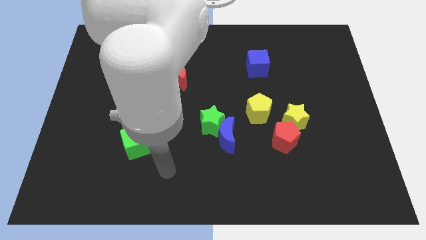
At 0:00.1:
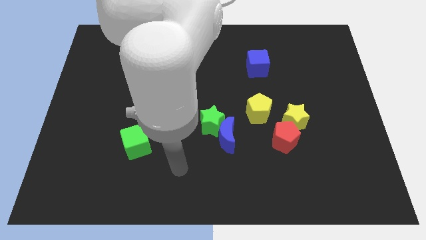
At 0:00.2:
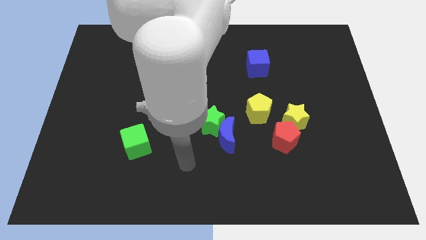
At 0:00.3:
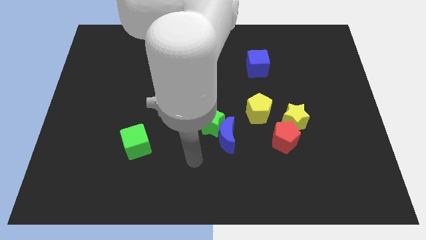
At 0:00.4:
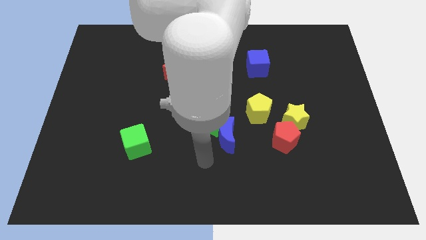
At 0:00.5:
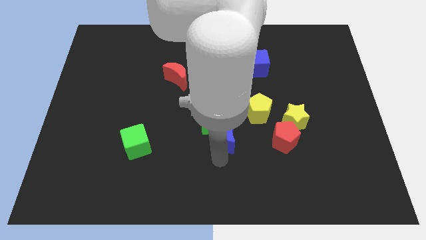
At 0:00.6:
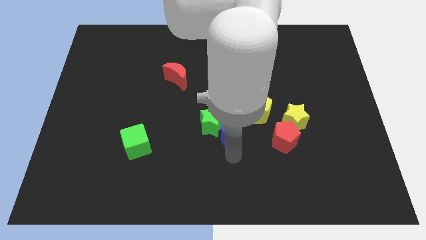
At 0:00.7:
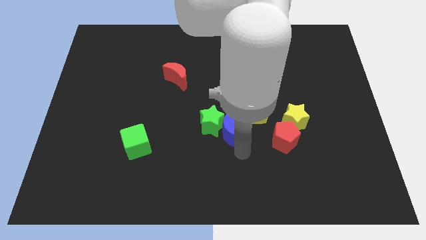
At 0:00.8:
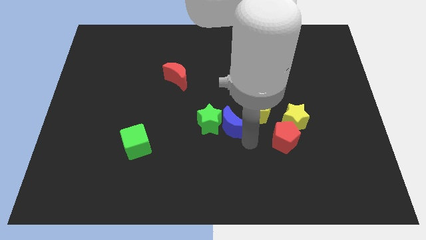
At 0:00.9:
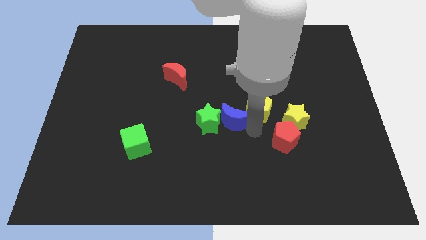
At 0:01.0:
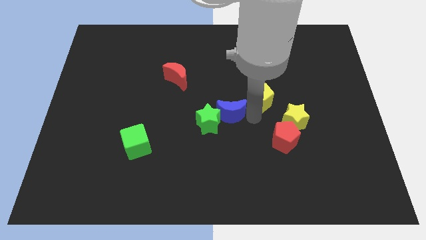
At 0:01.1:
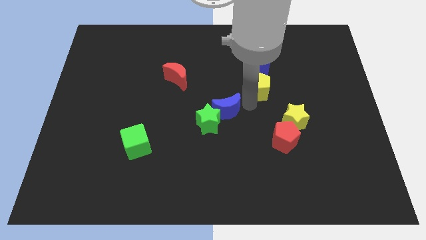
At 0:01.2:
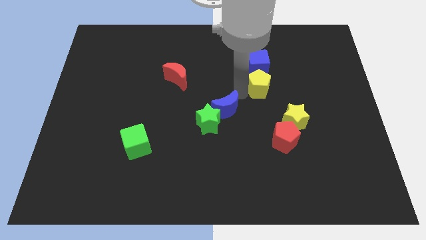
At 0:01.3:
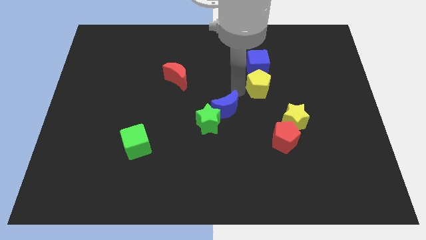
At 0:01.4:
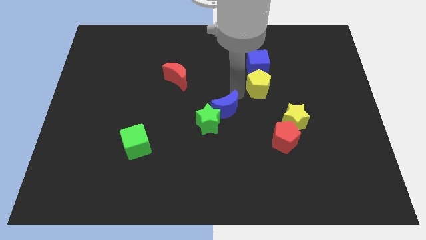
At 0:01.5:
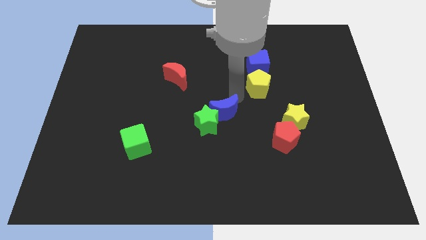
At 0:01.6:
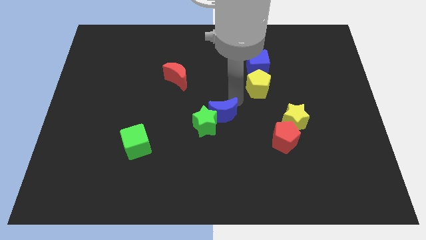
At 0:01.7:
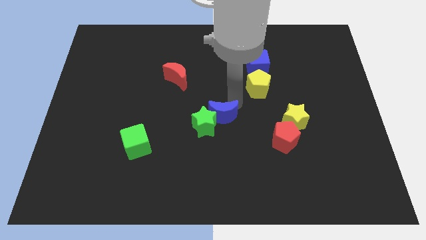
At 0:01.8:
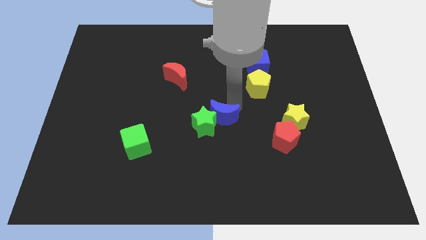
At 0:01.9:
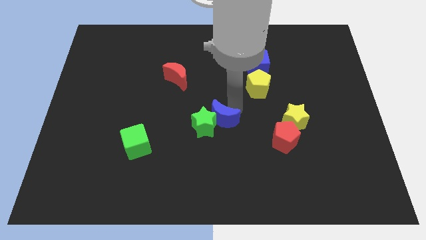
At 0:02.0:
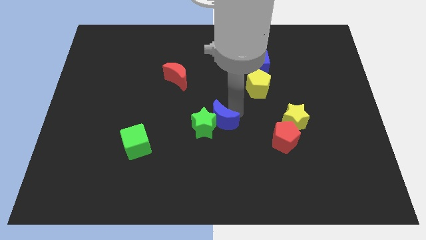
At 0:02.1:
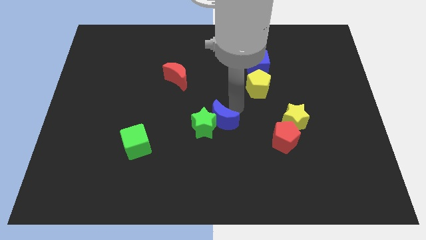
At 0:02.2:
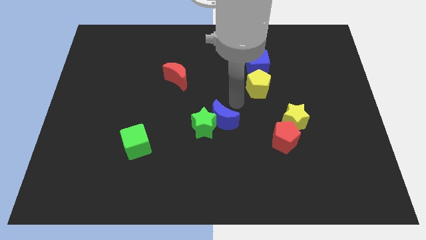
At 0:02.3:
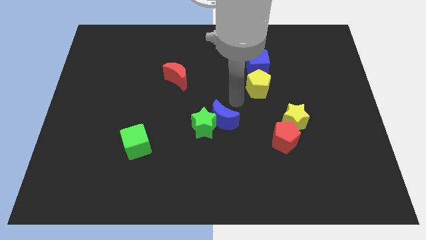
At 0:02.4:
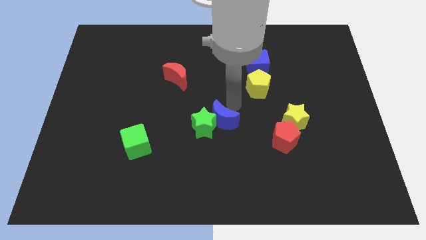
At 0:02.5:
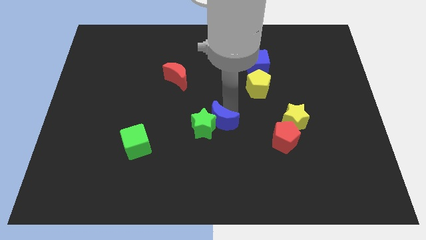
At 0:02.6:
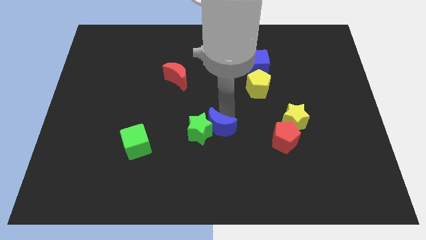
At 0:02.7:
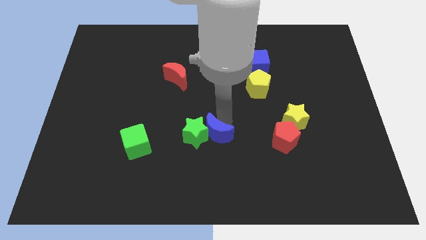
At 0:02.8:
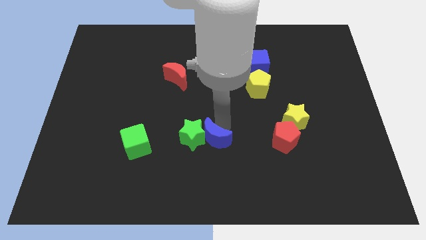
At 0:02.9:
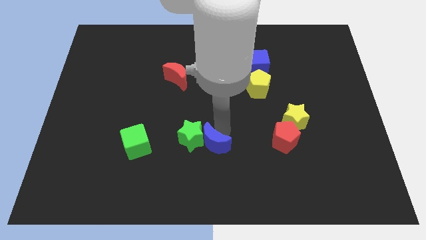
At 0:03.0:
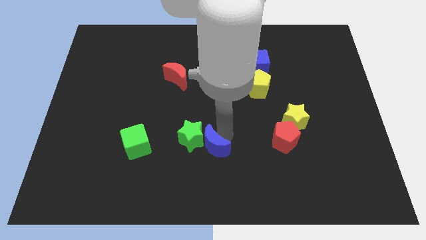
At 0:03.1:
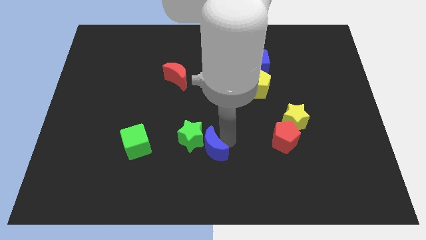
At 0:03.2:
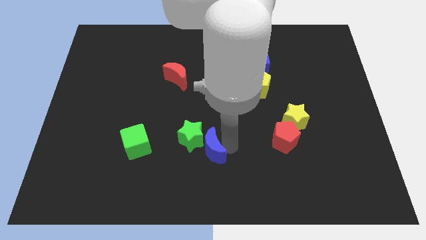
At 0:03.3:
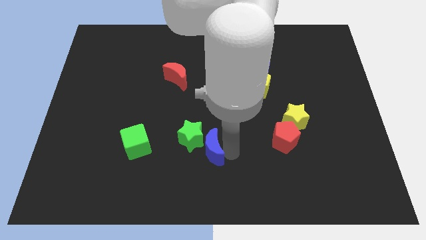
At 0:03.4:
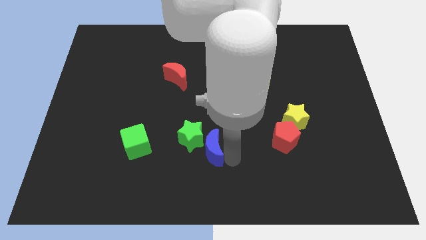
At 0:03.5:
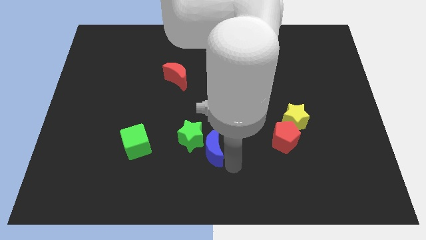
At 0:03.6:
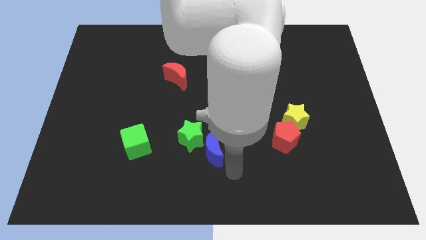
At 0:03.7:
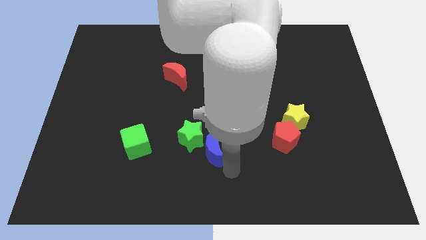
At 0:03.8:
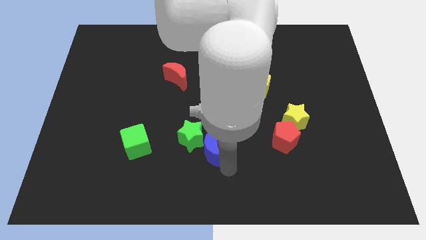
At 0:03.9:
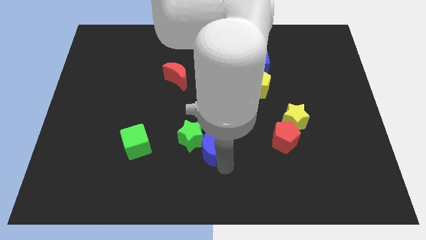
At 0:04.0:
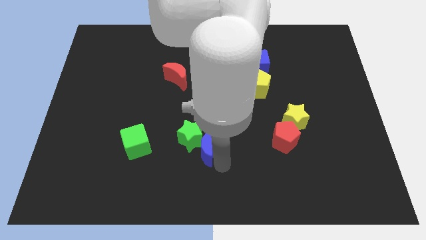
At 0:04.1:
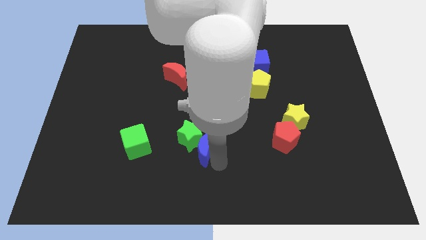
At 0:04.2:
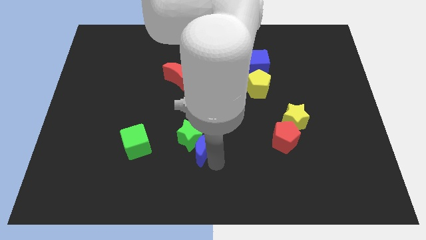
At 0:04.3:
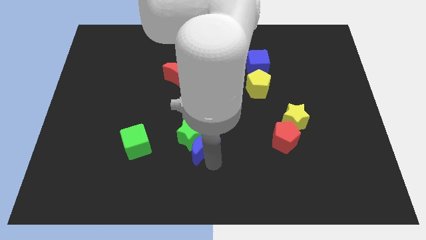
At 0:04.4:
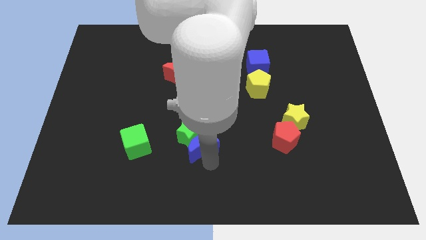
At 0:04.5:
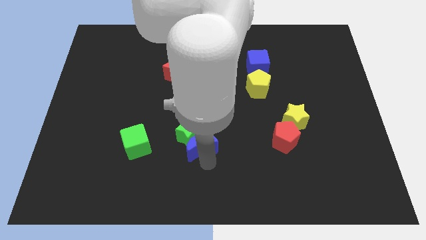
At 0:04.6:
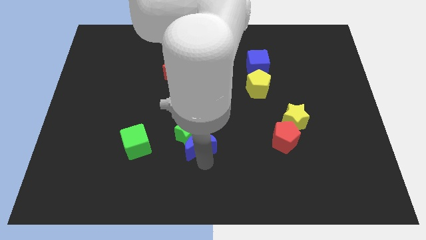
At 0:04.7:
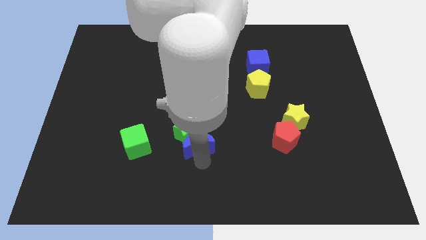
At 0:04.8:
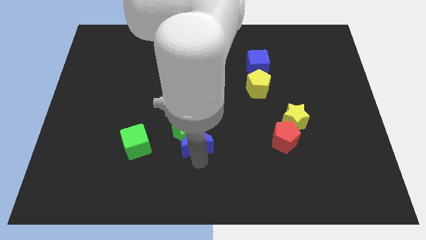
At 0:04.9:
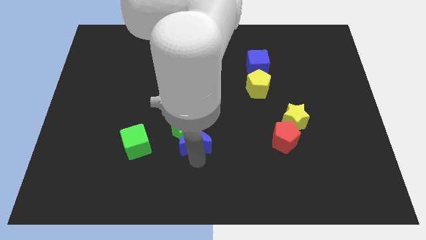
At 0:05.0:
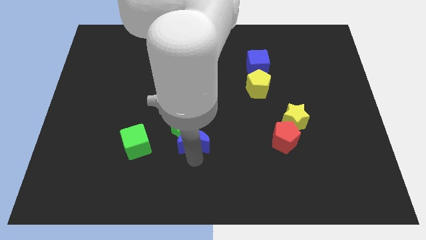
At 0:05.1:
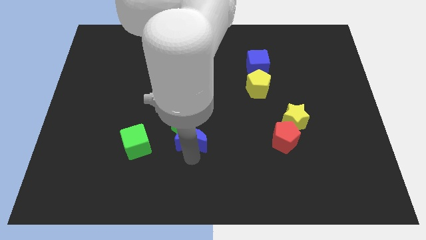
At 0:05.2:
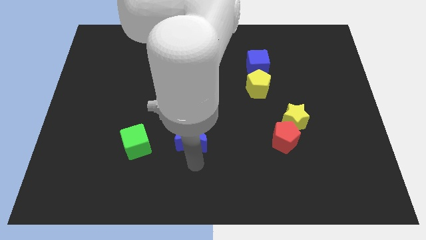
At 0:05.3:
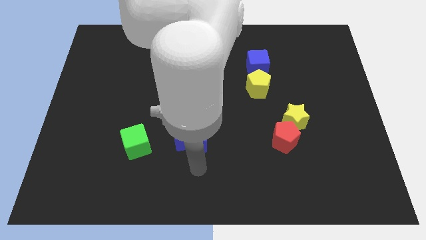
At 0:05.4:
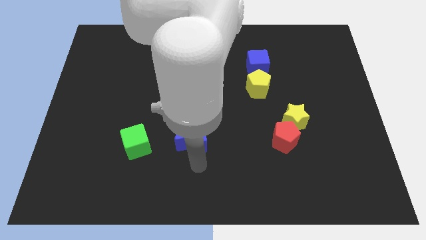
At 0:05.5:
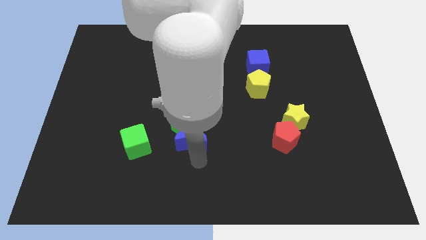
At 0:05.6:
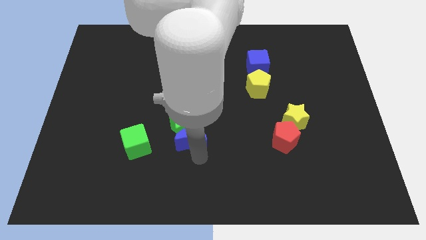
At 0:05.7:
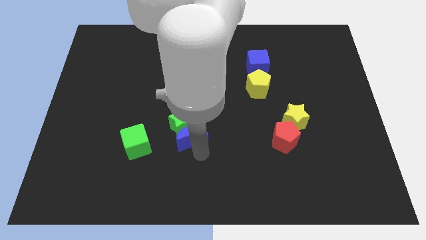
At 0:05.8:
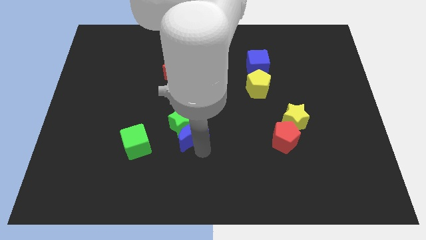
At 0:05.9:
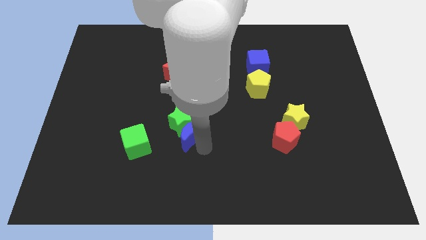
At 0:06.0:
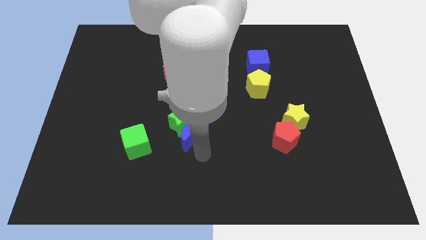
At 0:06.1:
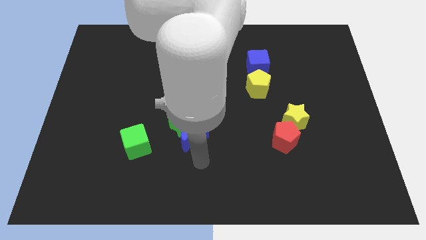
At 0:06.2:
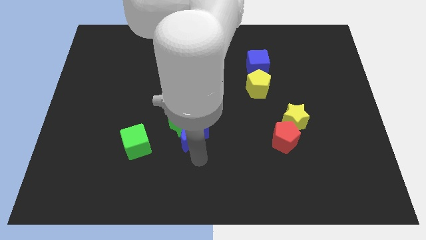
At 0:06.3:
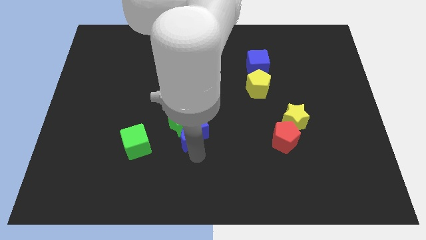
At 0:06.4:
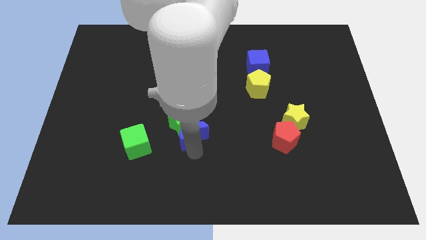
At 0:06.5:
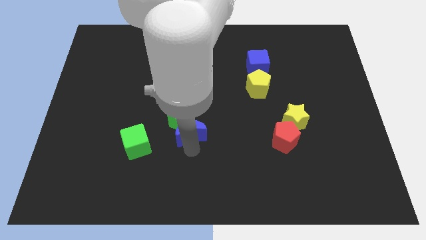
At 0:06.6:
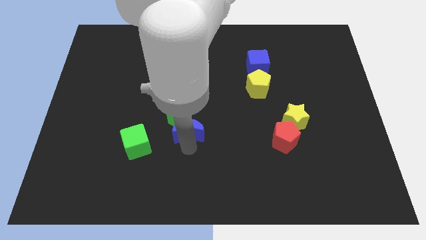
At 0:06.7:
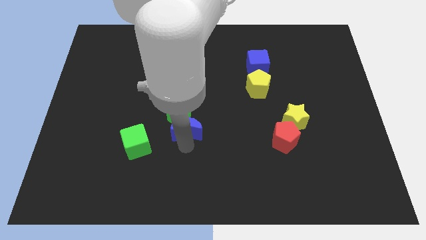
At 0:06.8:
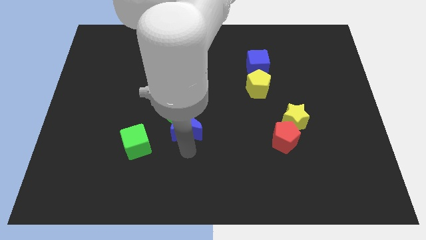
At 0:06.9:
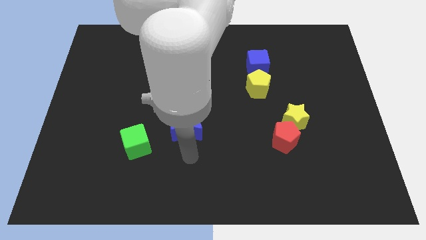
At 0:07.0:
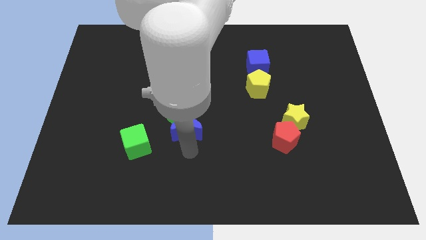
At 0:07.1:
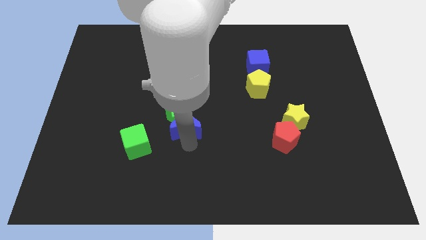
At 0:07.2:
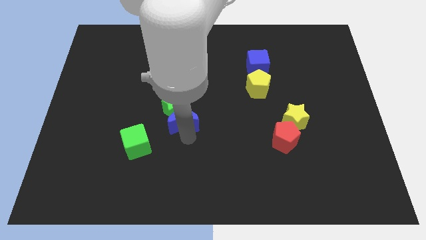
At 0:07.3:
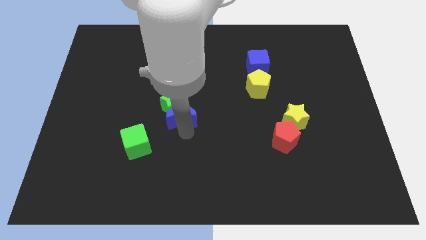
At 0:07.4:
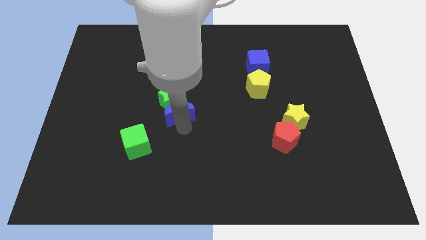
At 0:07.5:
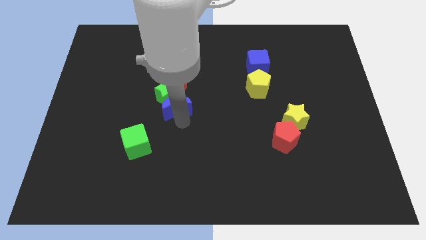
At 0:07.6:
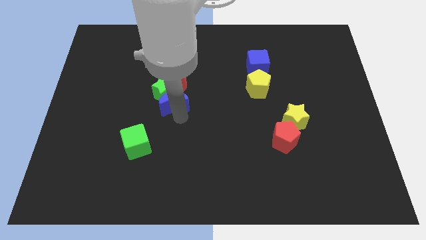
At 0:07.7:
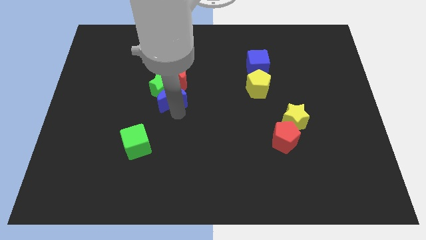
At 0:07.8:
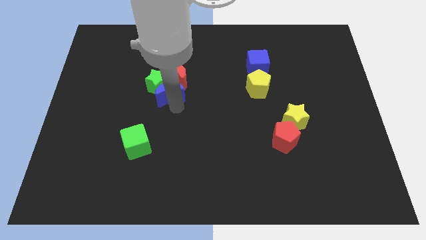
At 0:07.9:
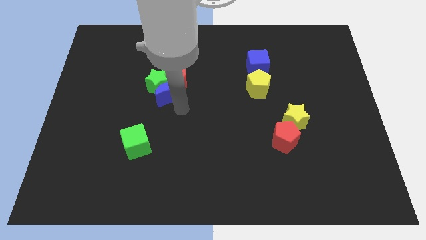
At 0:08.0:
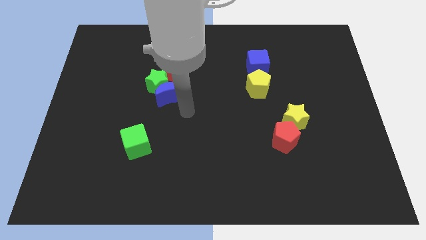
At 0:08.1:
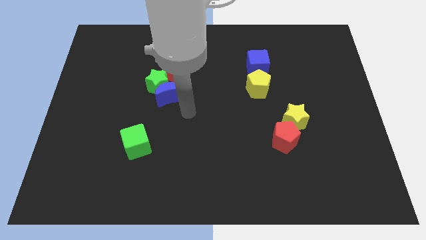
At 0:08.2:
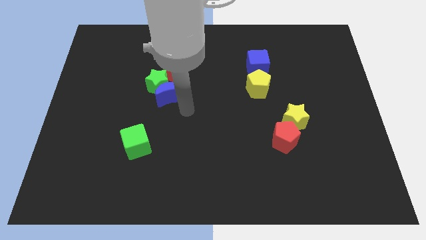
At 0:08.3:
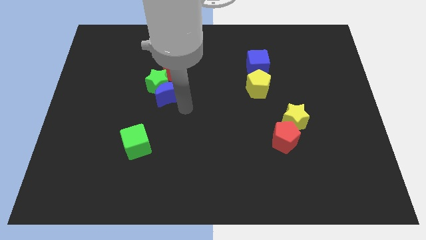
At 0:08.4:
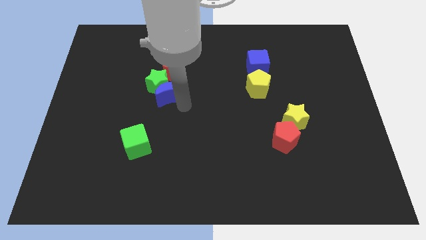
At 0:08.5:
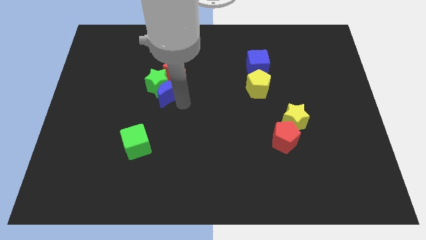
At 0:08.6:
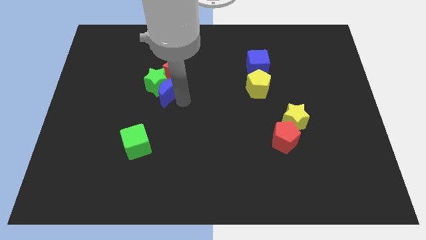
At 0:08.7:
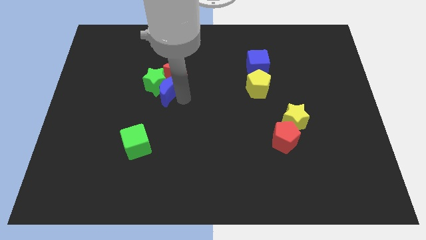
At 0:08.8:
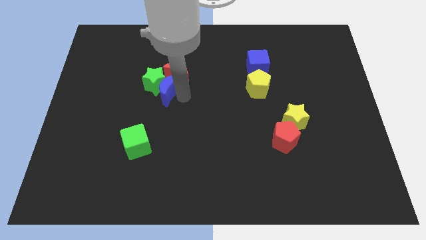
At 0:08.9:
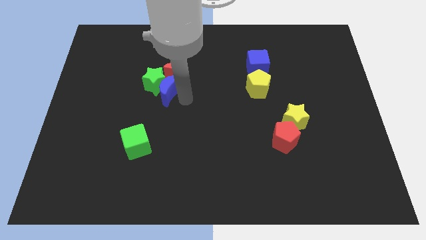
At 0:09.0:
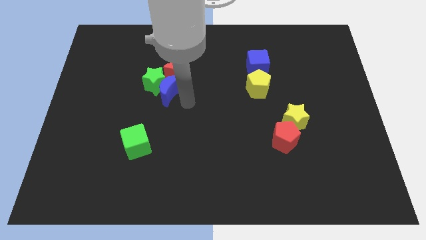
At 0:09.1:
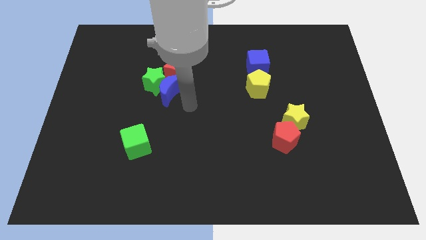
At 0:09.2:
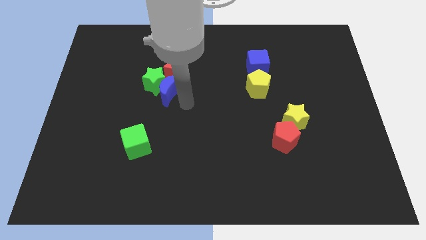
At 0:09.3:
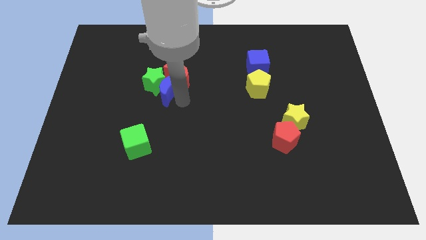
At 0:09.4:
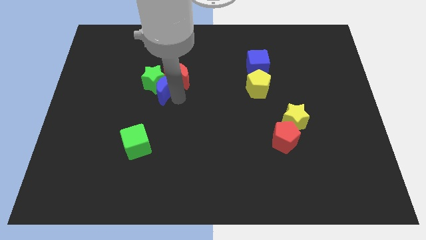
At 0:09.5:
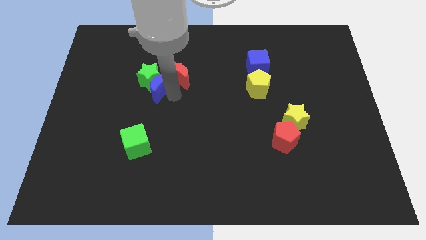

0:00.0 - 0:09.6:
slide the blue moon up and then to the left
